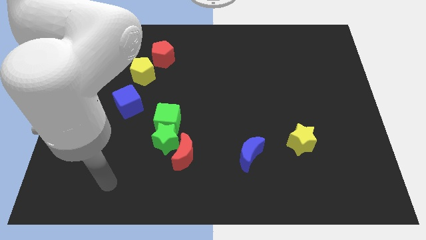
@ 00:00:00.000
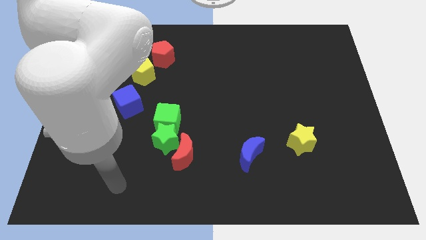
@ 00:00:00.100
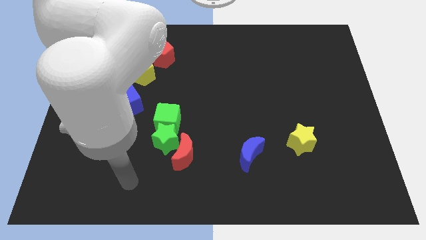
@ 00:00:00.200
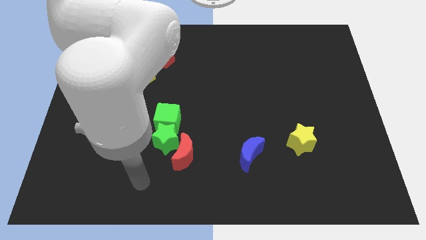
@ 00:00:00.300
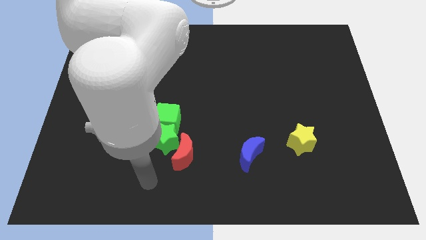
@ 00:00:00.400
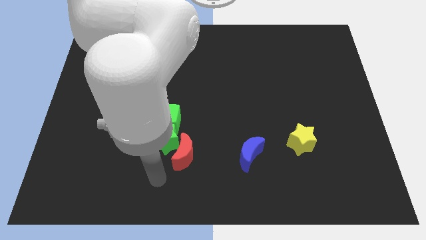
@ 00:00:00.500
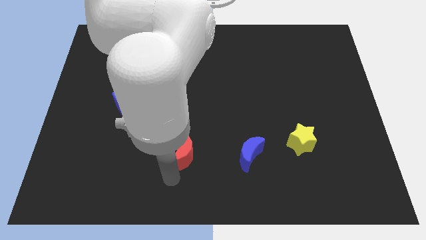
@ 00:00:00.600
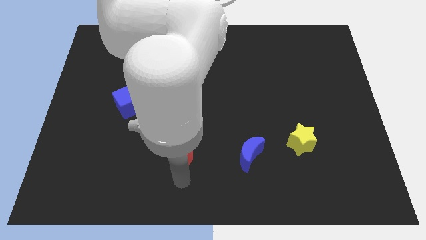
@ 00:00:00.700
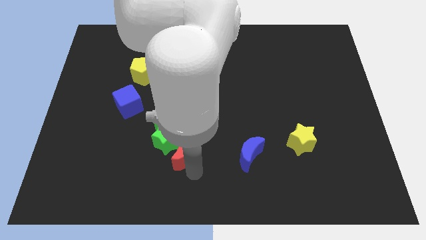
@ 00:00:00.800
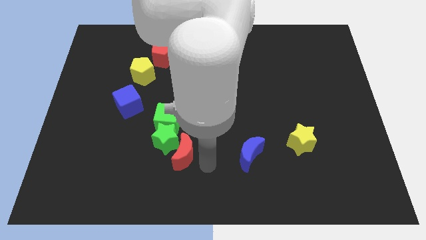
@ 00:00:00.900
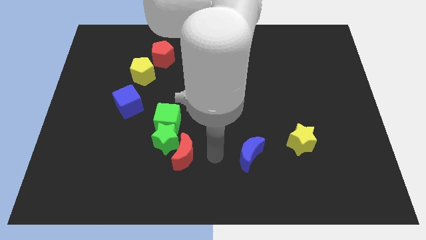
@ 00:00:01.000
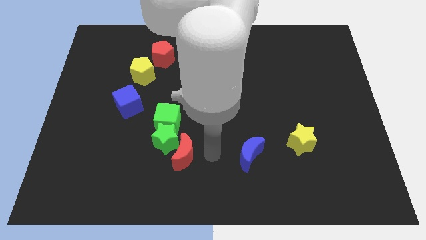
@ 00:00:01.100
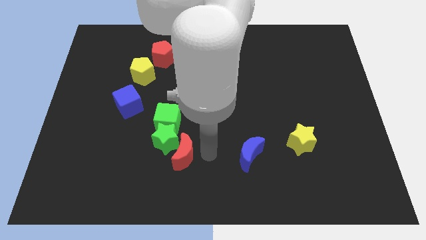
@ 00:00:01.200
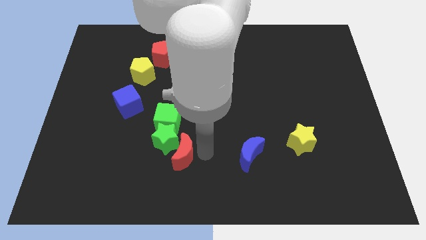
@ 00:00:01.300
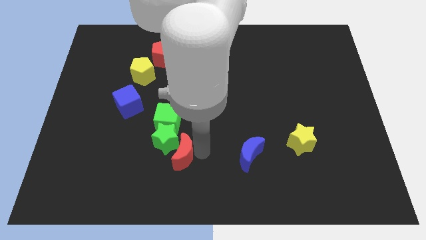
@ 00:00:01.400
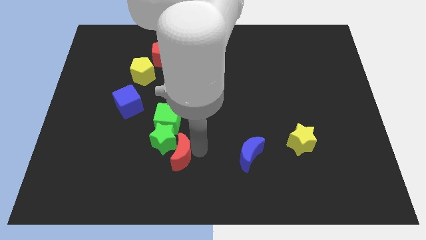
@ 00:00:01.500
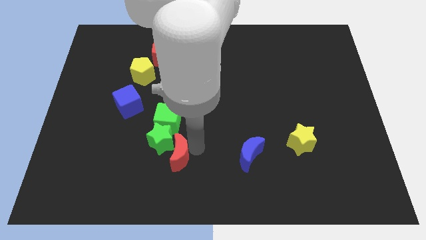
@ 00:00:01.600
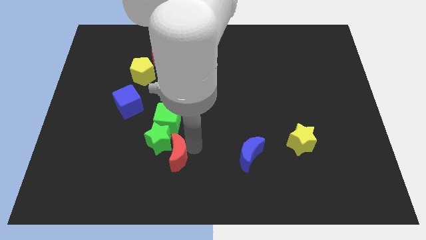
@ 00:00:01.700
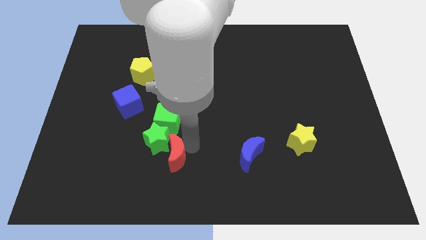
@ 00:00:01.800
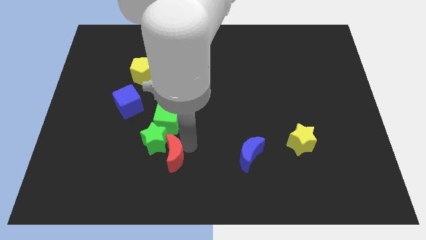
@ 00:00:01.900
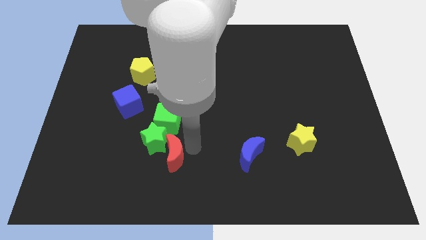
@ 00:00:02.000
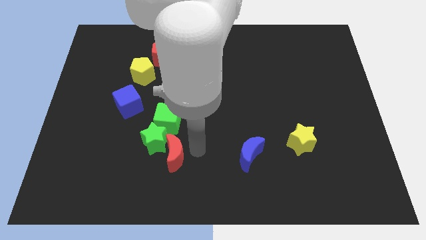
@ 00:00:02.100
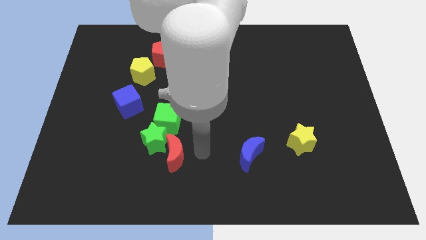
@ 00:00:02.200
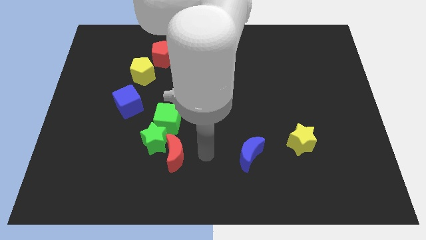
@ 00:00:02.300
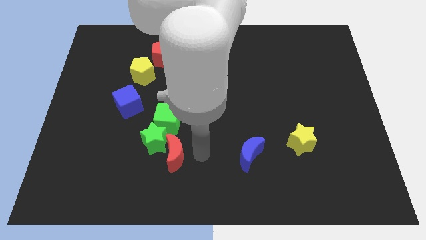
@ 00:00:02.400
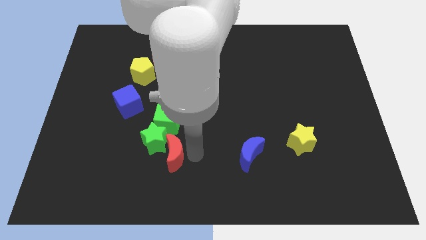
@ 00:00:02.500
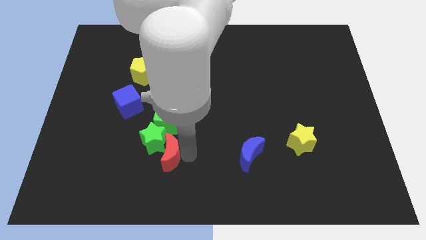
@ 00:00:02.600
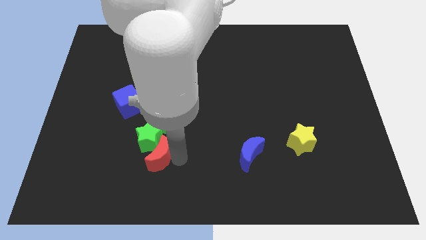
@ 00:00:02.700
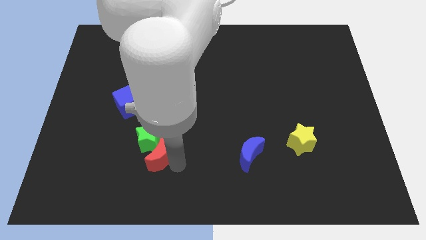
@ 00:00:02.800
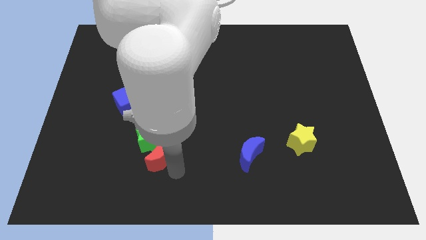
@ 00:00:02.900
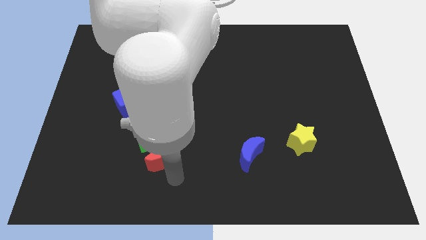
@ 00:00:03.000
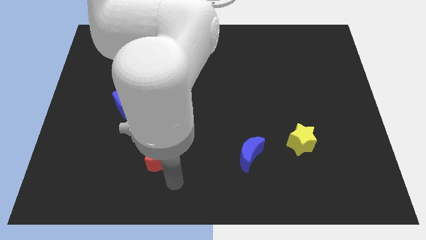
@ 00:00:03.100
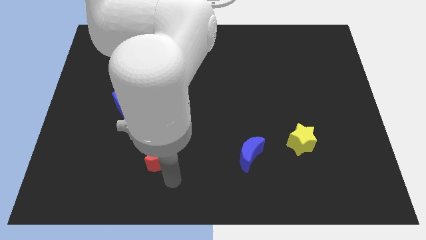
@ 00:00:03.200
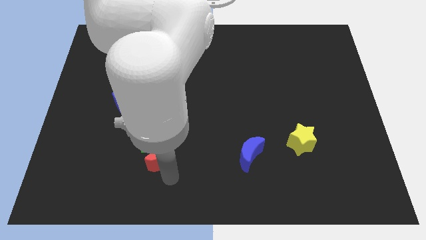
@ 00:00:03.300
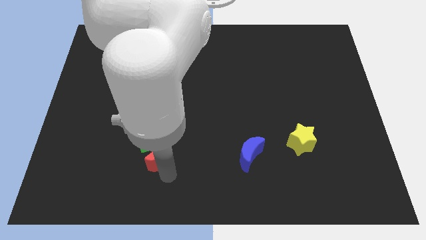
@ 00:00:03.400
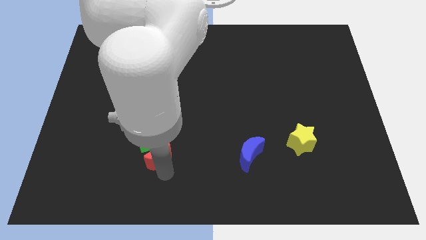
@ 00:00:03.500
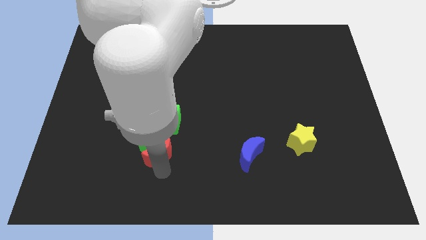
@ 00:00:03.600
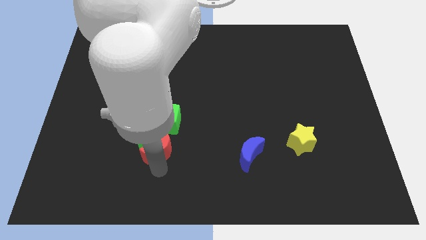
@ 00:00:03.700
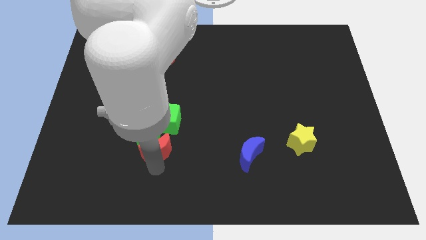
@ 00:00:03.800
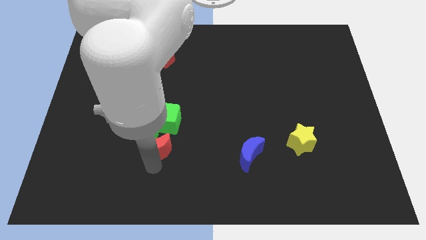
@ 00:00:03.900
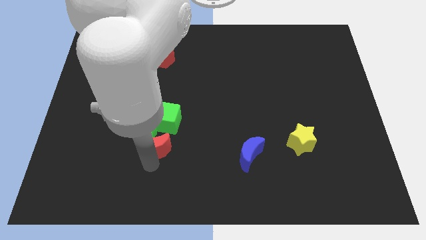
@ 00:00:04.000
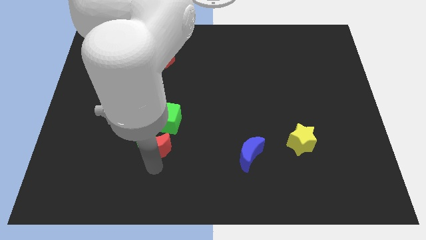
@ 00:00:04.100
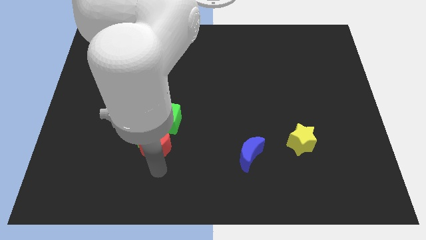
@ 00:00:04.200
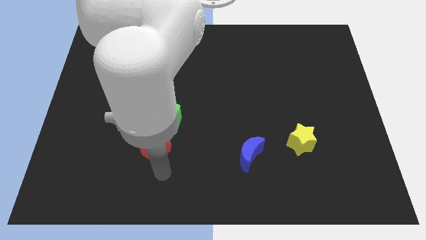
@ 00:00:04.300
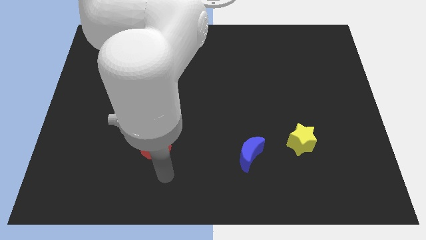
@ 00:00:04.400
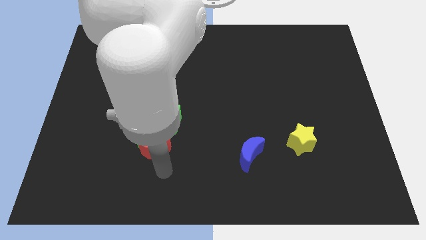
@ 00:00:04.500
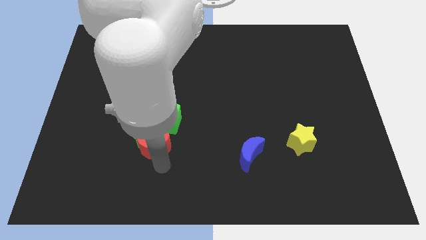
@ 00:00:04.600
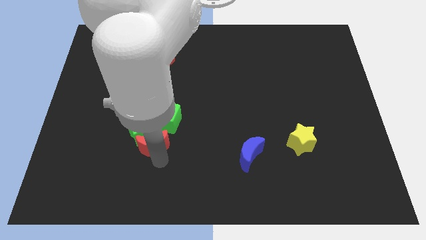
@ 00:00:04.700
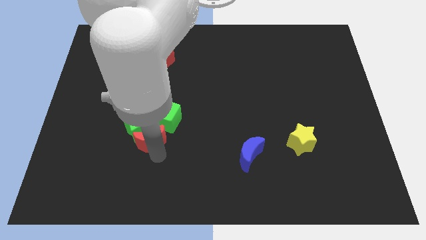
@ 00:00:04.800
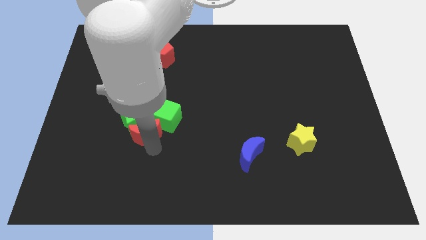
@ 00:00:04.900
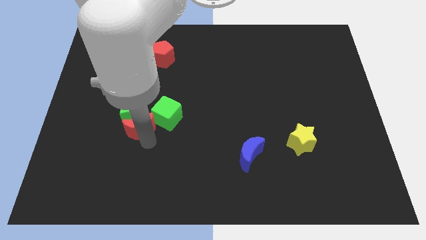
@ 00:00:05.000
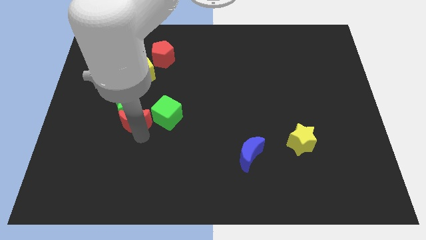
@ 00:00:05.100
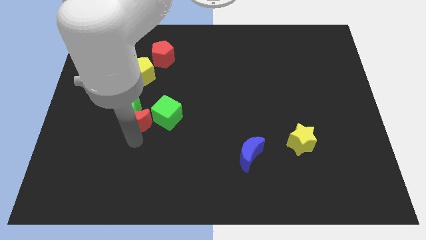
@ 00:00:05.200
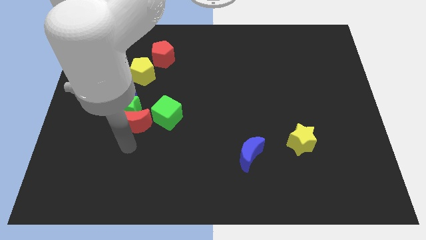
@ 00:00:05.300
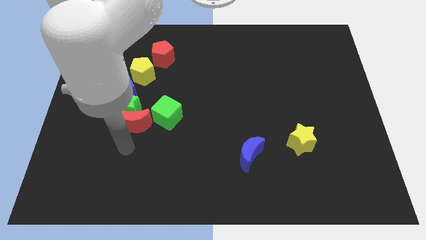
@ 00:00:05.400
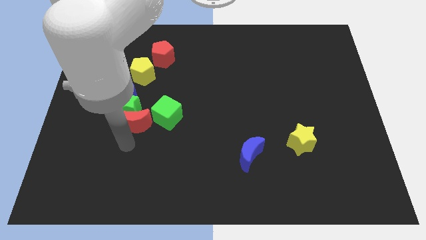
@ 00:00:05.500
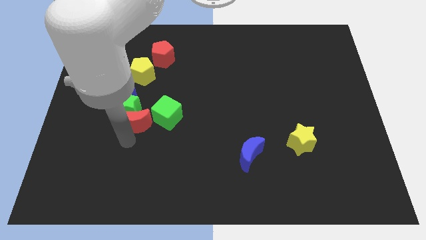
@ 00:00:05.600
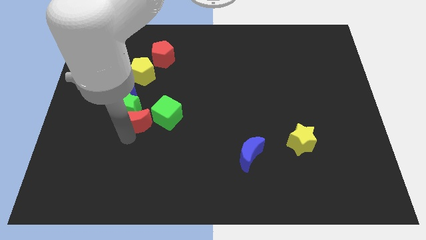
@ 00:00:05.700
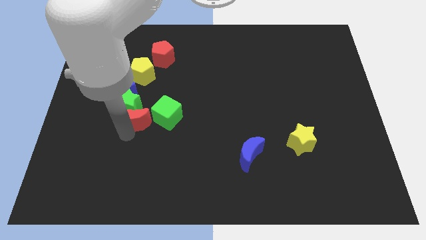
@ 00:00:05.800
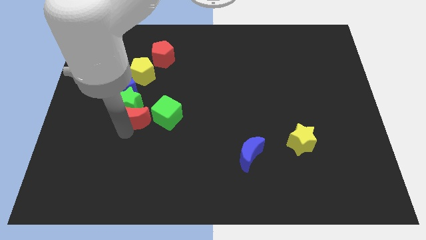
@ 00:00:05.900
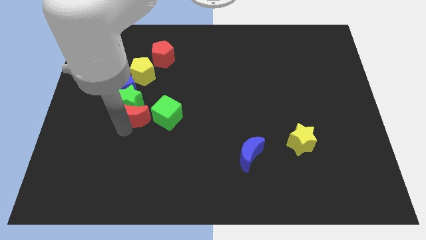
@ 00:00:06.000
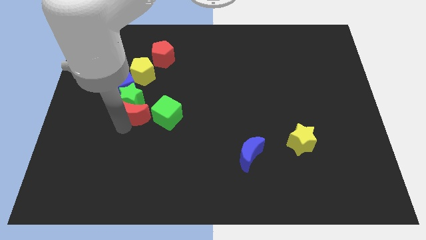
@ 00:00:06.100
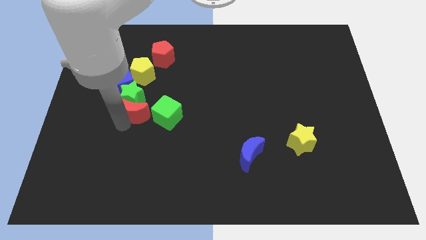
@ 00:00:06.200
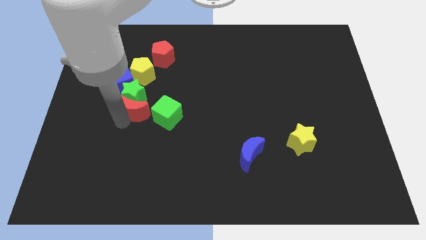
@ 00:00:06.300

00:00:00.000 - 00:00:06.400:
push the red moon to the top left of the green cube
